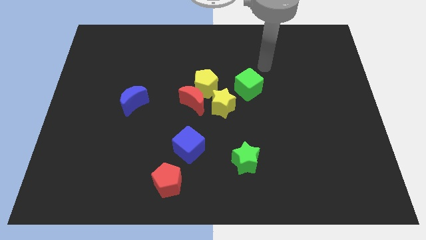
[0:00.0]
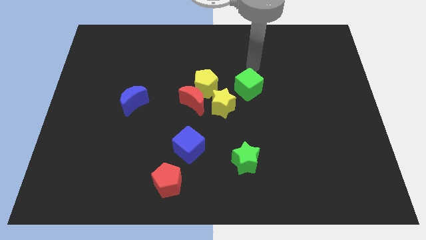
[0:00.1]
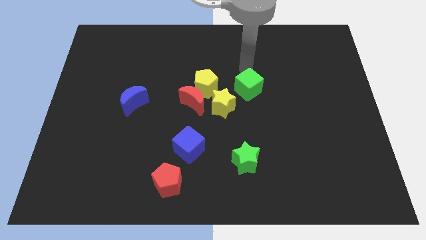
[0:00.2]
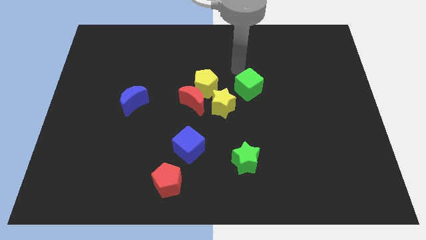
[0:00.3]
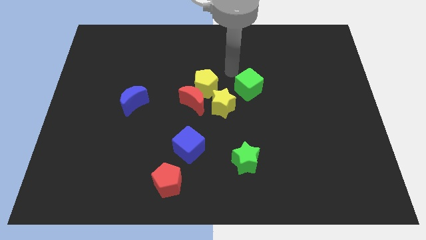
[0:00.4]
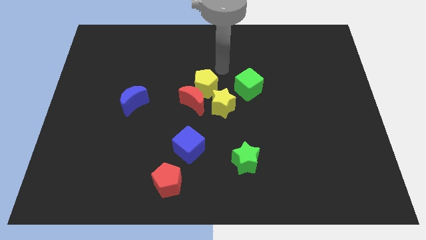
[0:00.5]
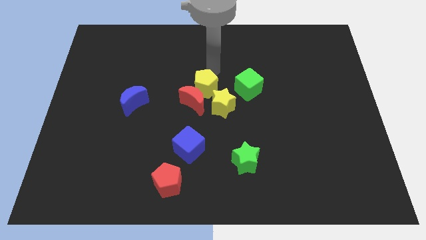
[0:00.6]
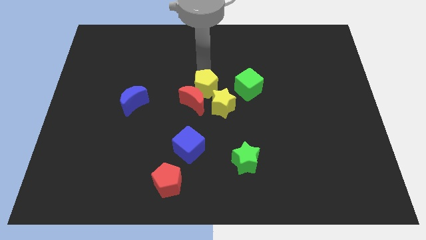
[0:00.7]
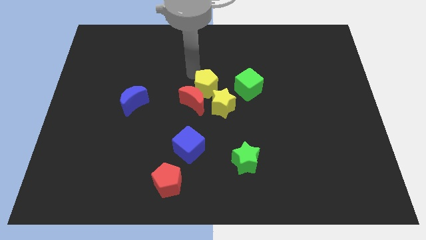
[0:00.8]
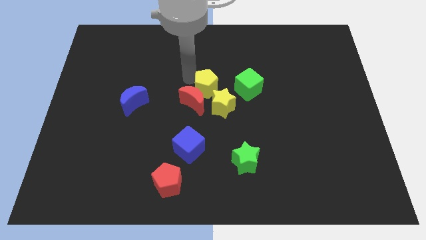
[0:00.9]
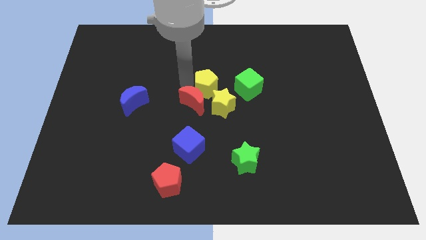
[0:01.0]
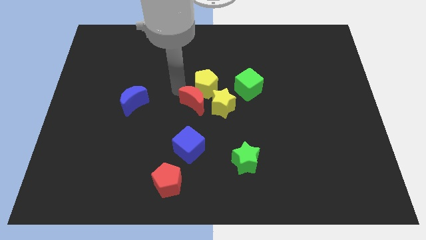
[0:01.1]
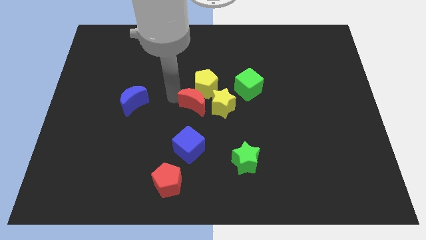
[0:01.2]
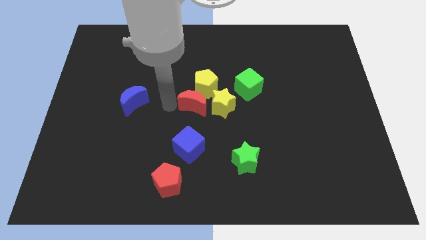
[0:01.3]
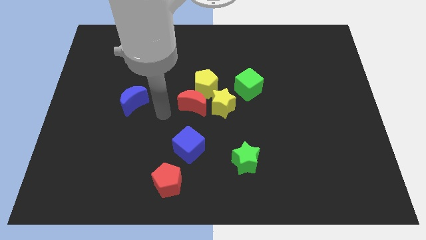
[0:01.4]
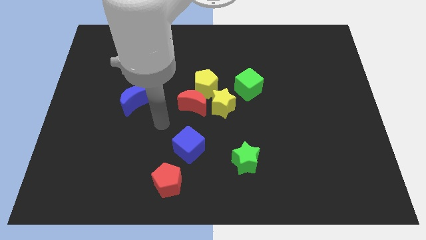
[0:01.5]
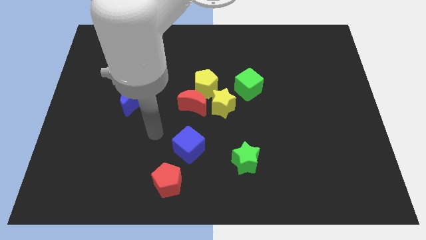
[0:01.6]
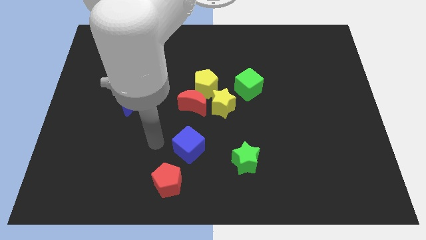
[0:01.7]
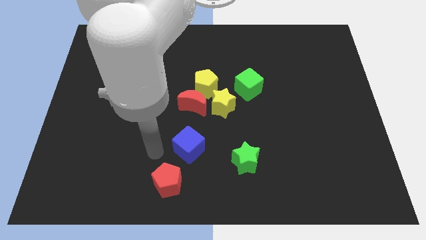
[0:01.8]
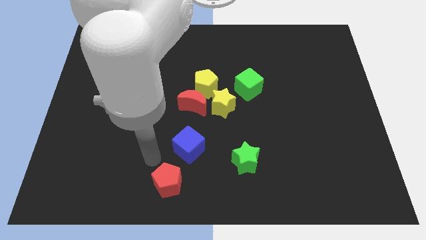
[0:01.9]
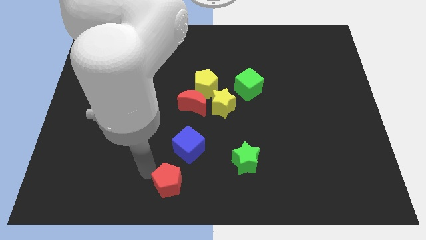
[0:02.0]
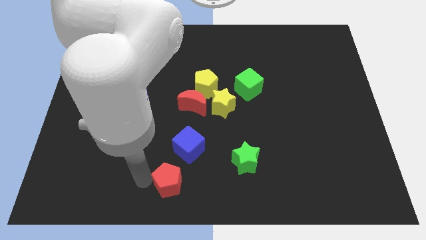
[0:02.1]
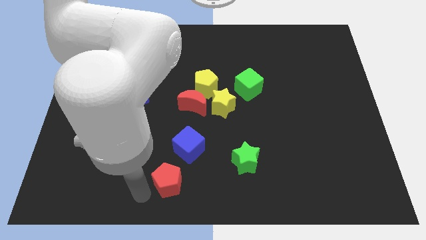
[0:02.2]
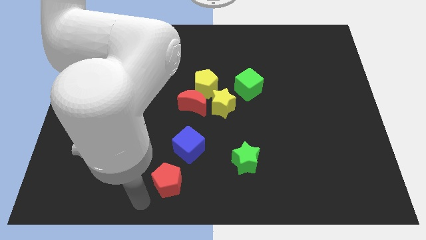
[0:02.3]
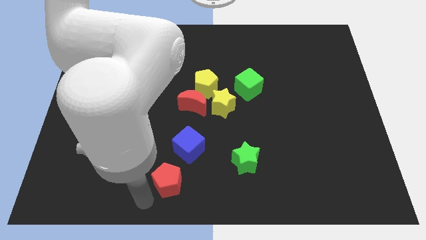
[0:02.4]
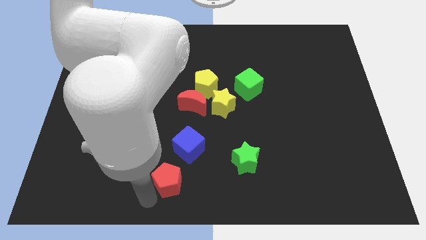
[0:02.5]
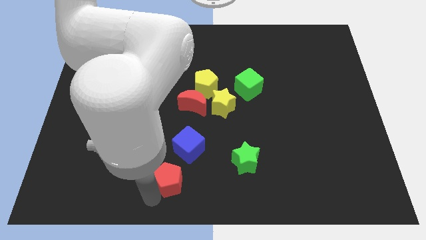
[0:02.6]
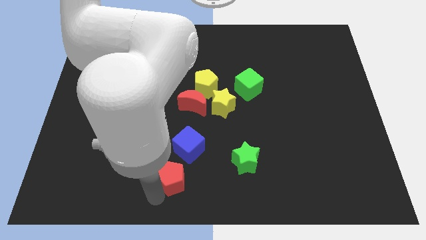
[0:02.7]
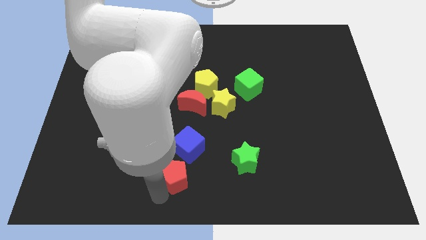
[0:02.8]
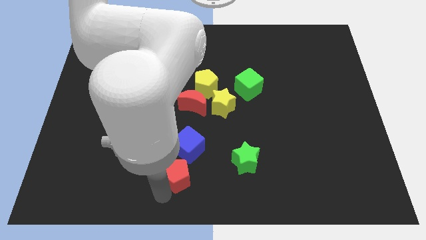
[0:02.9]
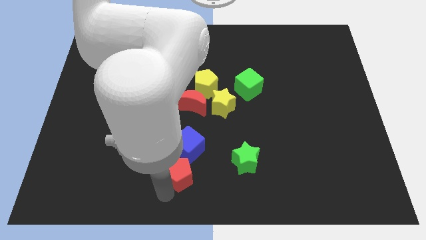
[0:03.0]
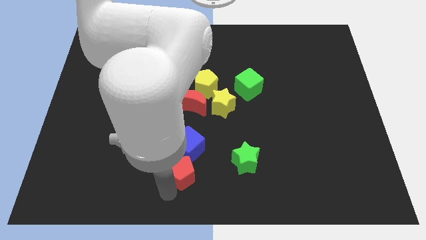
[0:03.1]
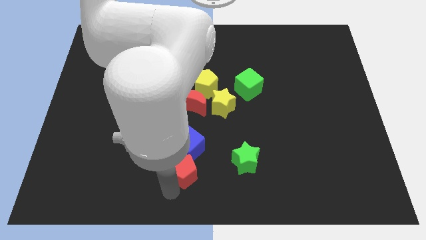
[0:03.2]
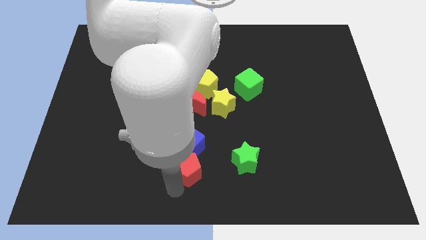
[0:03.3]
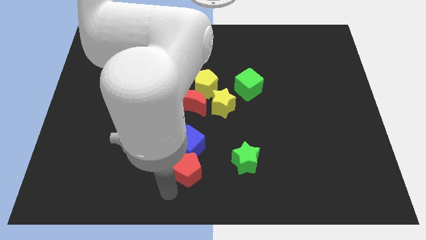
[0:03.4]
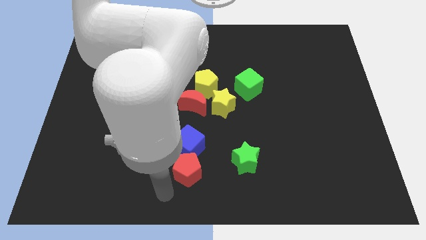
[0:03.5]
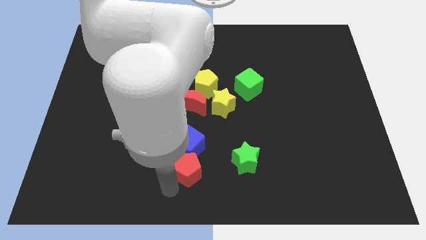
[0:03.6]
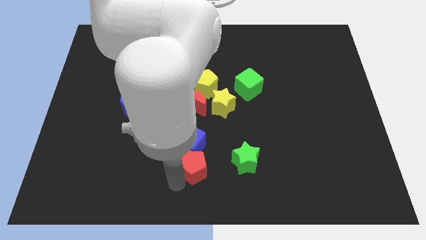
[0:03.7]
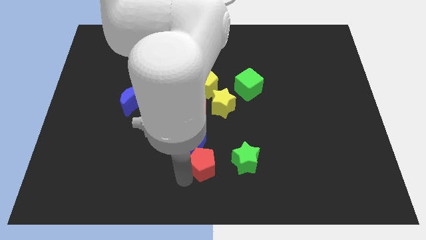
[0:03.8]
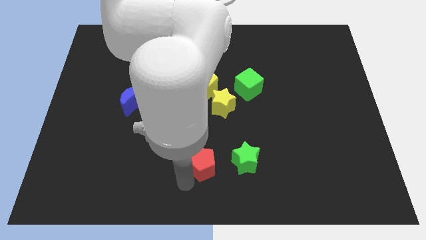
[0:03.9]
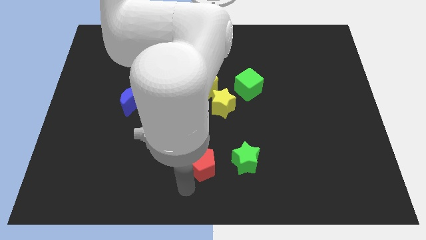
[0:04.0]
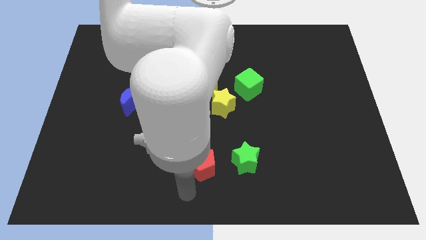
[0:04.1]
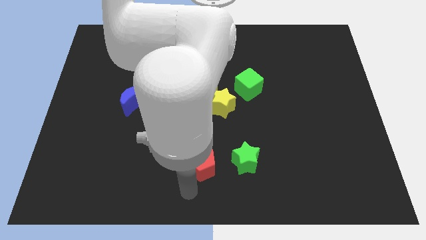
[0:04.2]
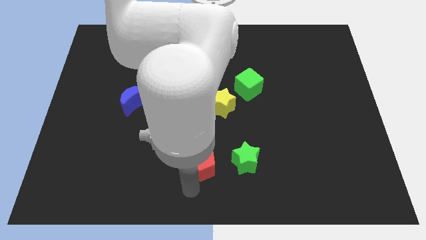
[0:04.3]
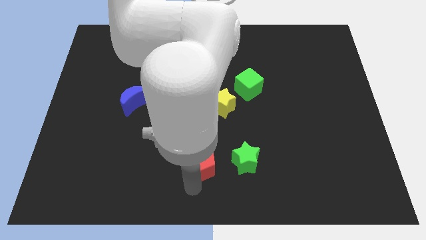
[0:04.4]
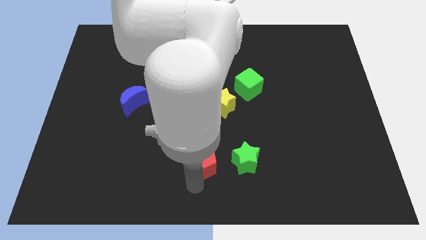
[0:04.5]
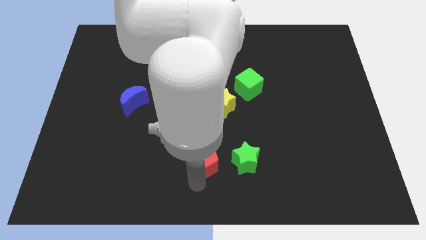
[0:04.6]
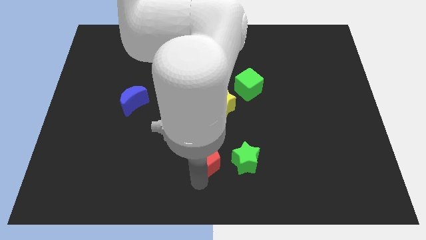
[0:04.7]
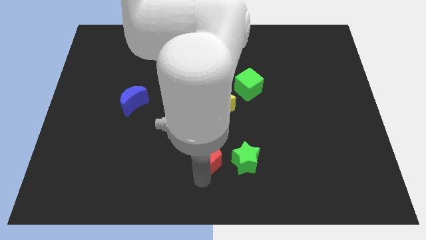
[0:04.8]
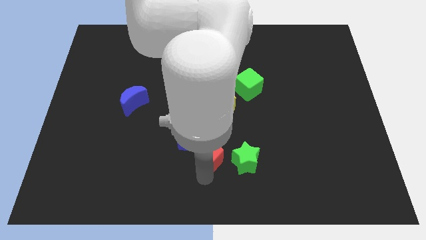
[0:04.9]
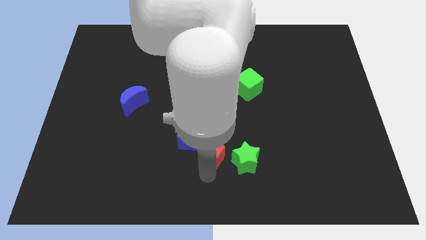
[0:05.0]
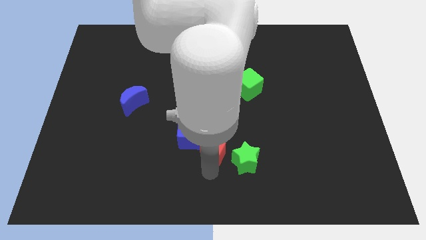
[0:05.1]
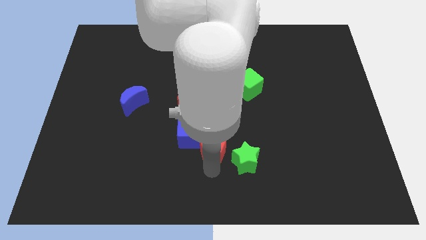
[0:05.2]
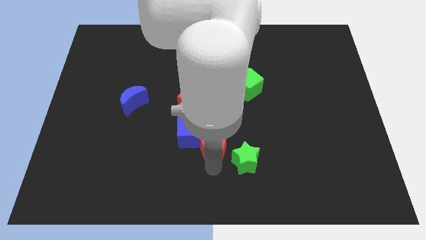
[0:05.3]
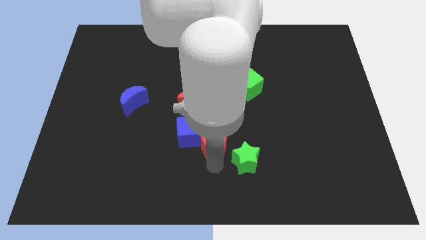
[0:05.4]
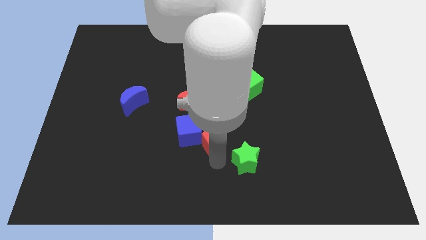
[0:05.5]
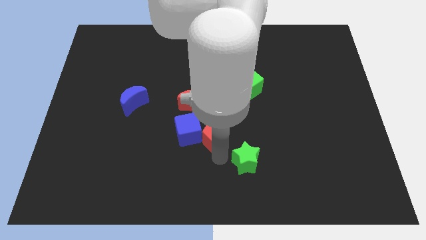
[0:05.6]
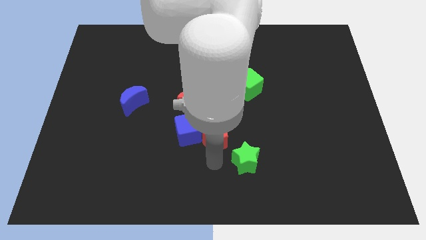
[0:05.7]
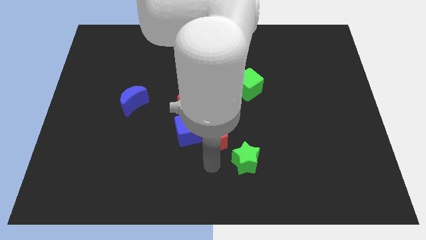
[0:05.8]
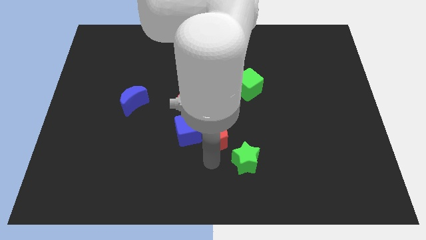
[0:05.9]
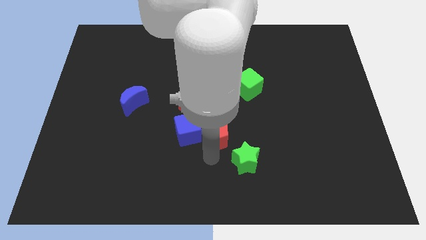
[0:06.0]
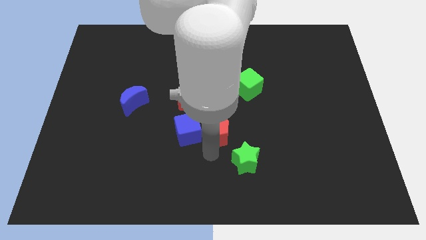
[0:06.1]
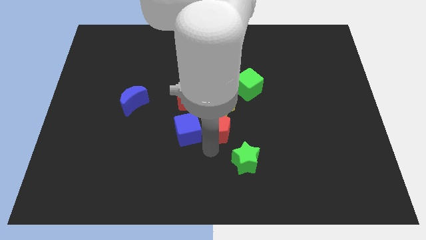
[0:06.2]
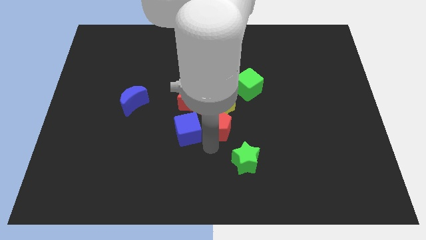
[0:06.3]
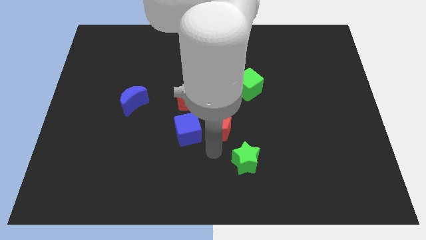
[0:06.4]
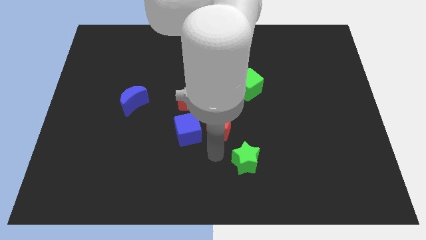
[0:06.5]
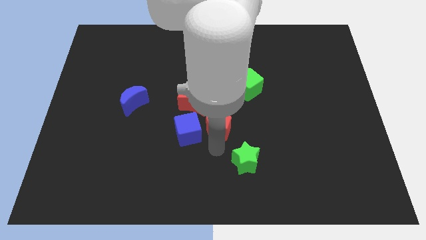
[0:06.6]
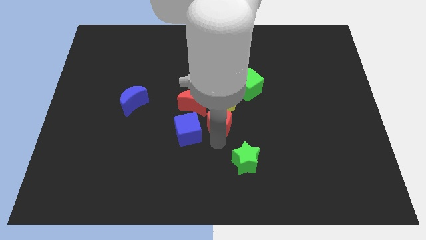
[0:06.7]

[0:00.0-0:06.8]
push the red pentagon towards the yellow star
